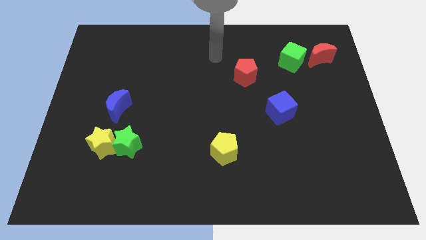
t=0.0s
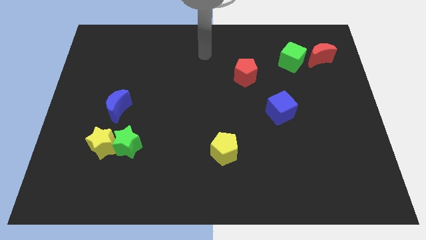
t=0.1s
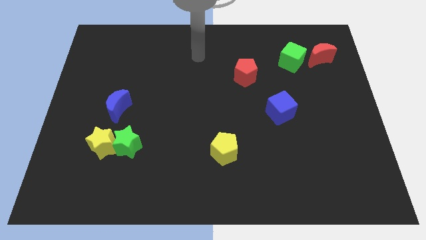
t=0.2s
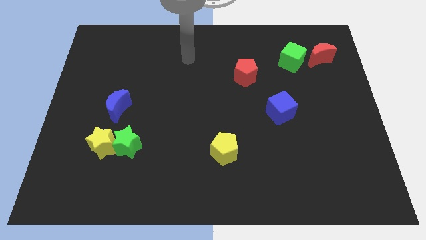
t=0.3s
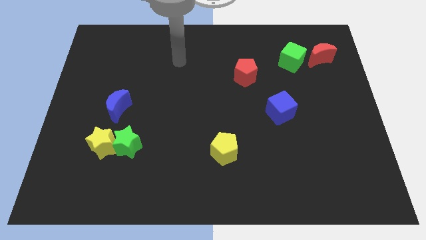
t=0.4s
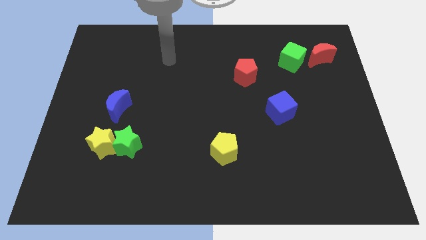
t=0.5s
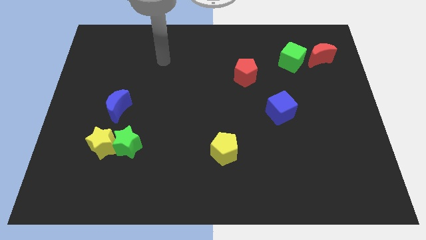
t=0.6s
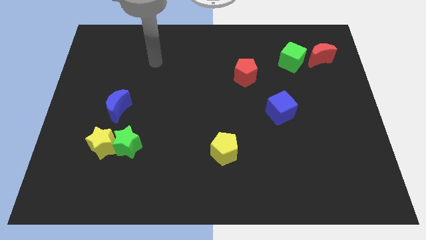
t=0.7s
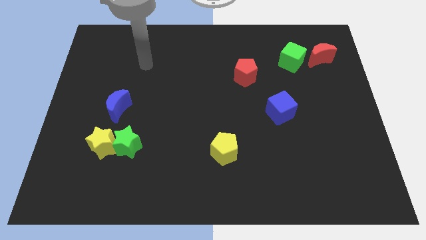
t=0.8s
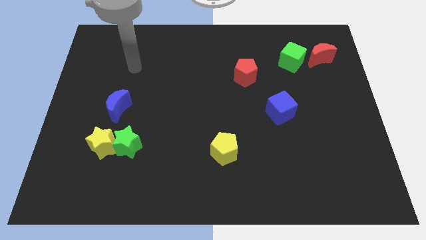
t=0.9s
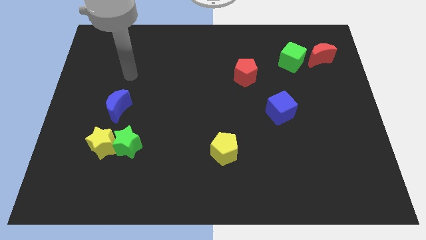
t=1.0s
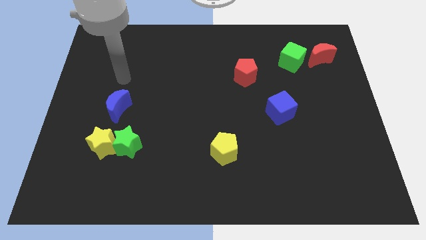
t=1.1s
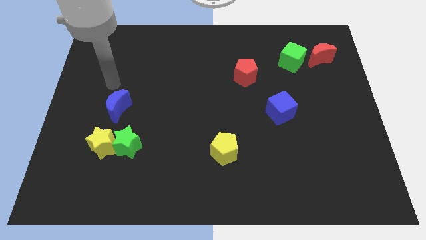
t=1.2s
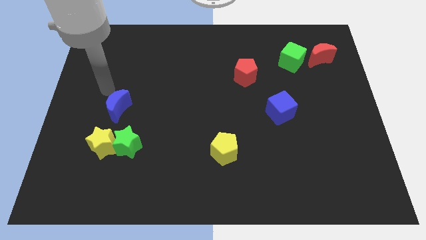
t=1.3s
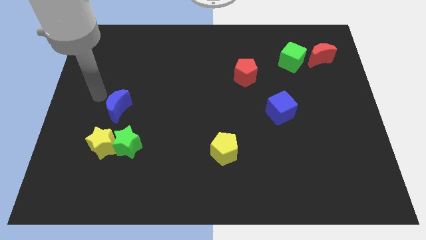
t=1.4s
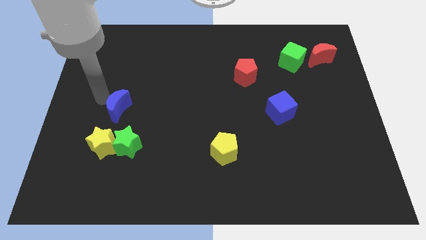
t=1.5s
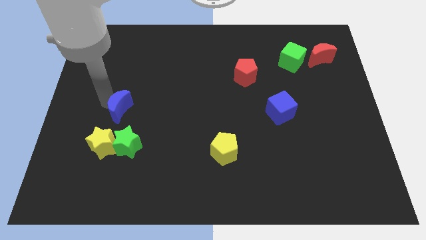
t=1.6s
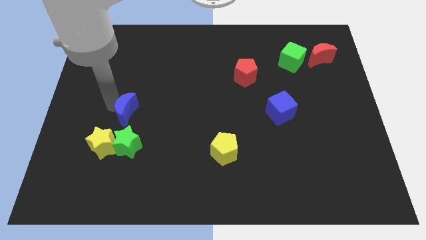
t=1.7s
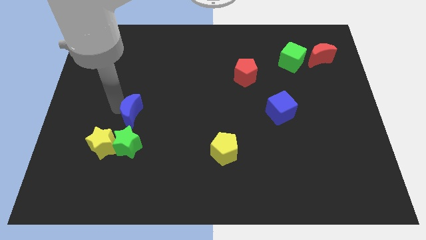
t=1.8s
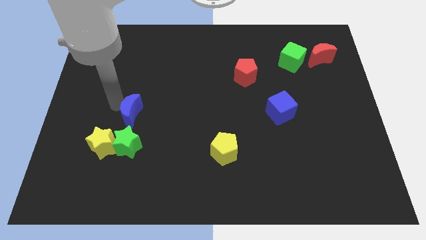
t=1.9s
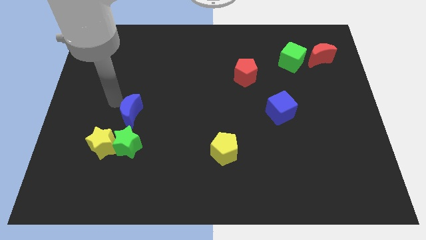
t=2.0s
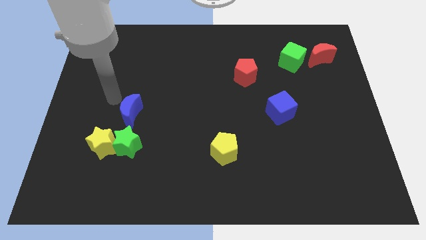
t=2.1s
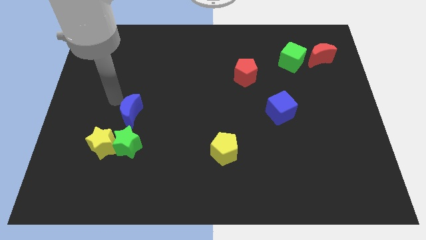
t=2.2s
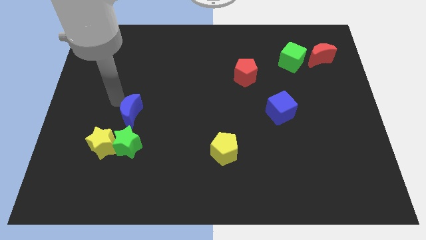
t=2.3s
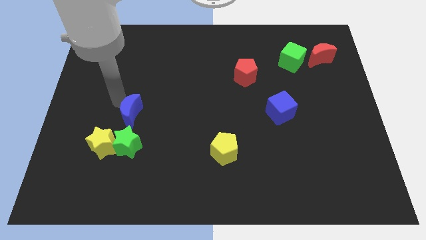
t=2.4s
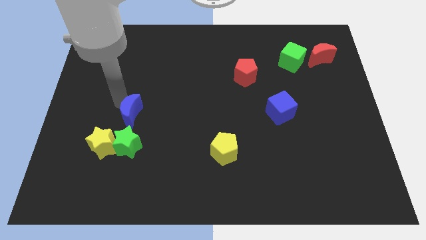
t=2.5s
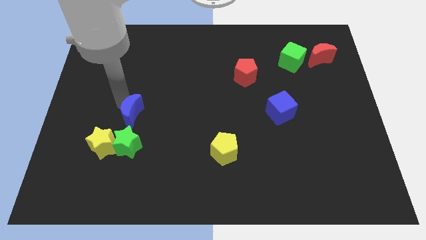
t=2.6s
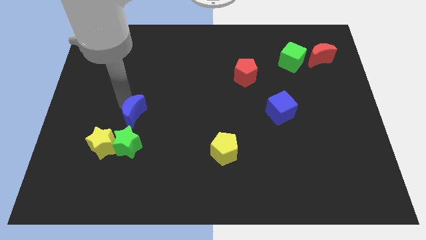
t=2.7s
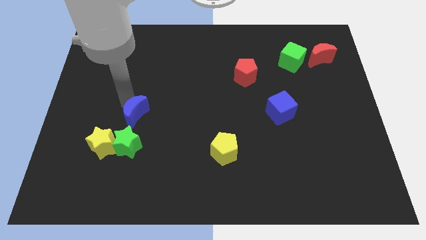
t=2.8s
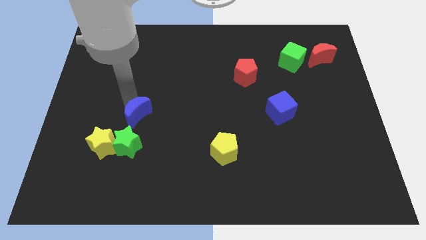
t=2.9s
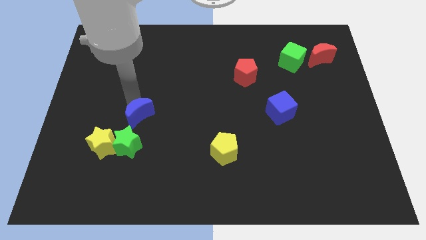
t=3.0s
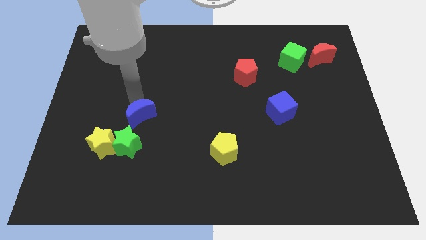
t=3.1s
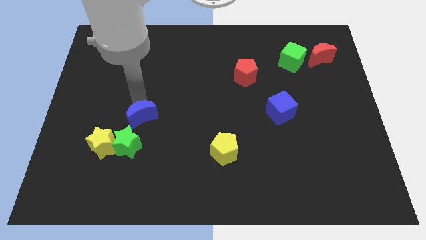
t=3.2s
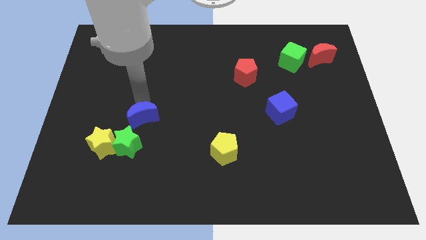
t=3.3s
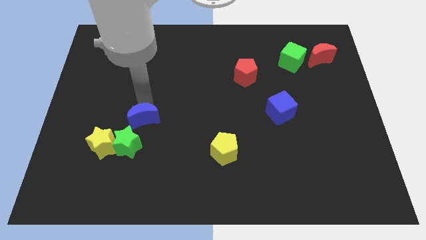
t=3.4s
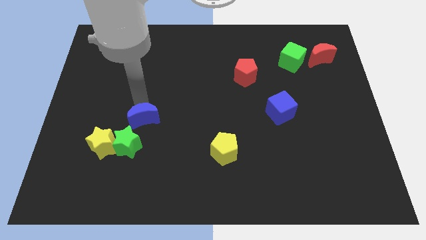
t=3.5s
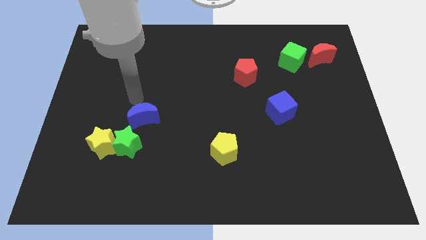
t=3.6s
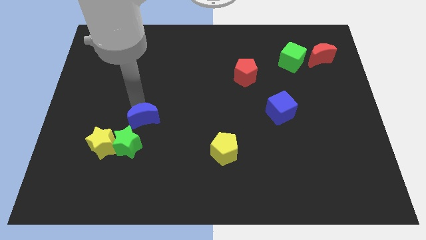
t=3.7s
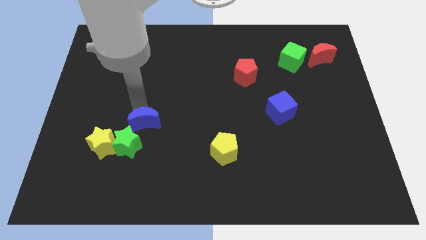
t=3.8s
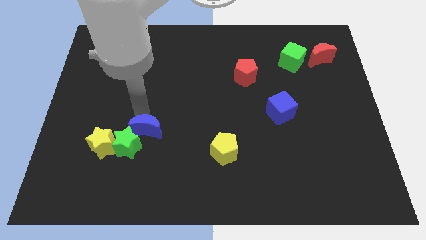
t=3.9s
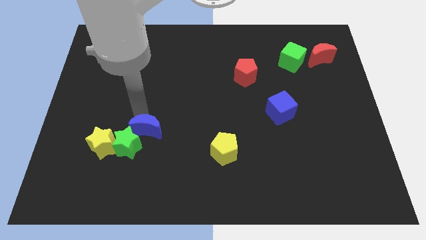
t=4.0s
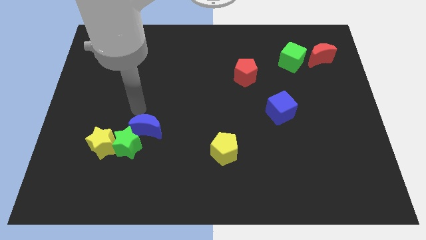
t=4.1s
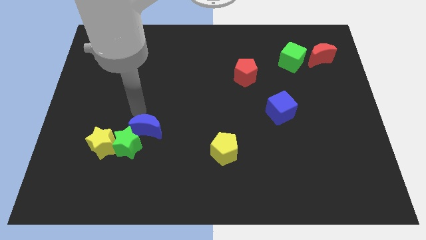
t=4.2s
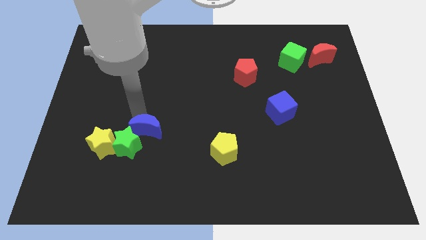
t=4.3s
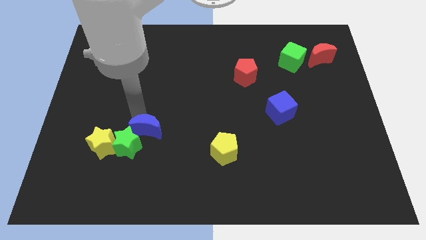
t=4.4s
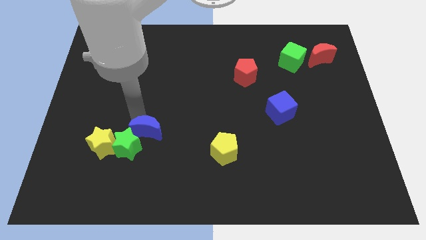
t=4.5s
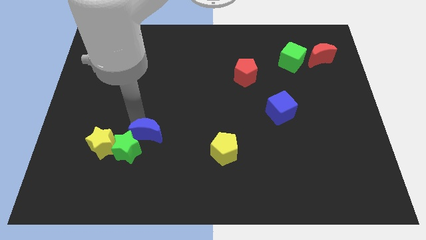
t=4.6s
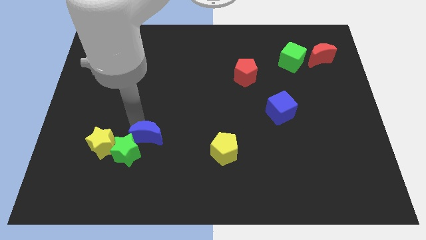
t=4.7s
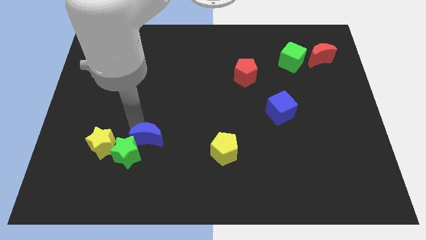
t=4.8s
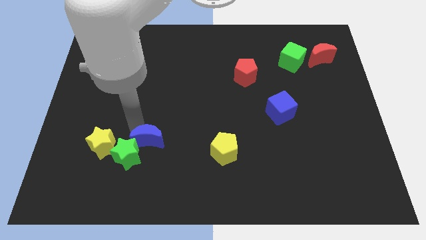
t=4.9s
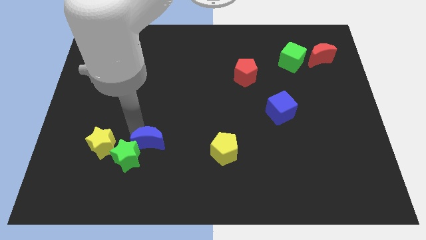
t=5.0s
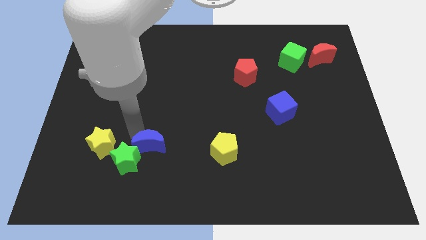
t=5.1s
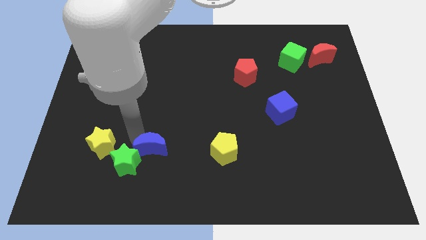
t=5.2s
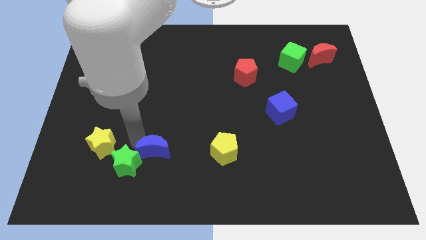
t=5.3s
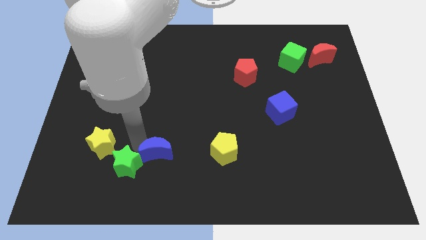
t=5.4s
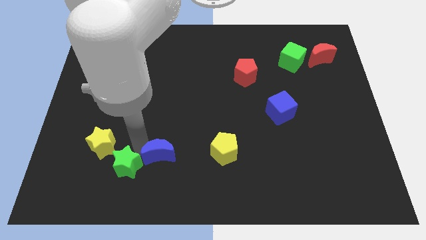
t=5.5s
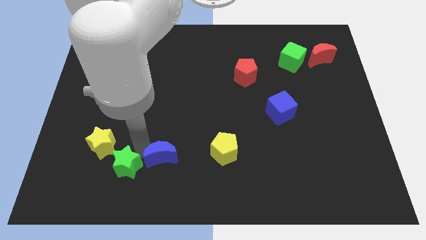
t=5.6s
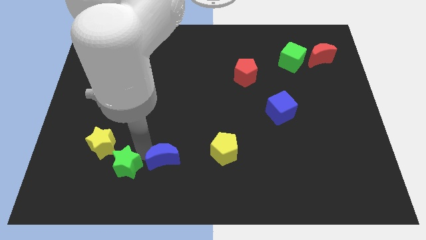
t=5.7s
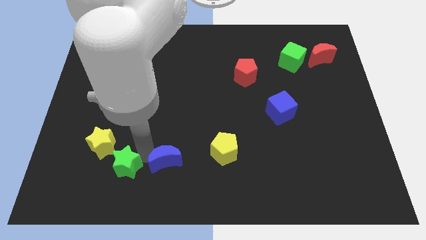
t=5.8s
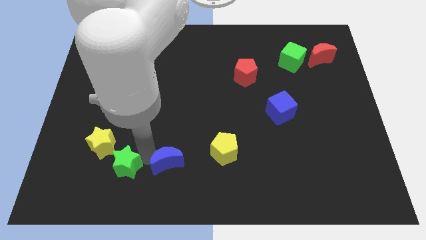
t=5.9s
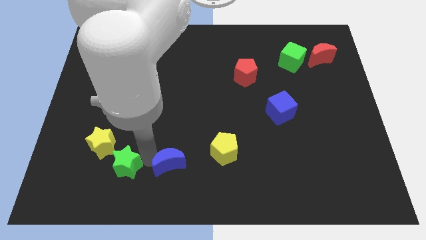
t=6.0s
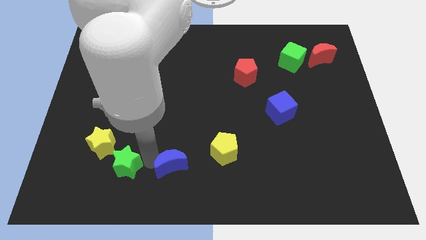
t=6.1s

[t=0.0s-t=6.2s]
move the blue moon to the bottom

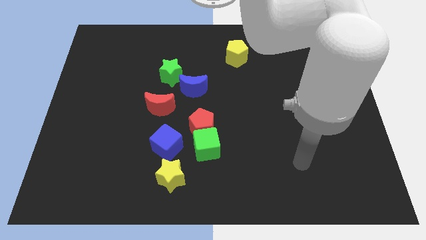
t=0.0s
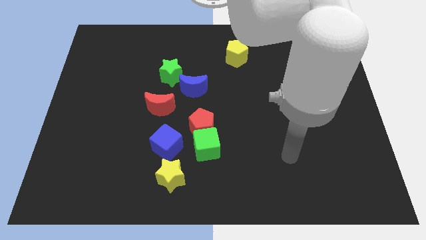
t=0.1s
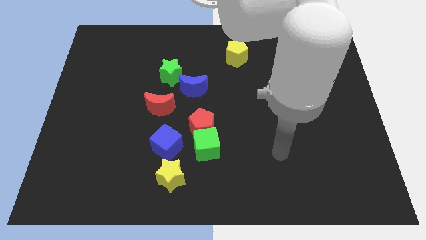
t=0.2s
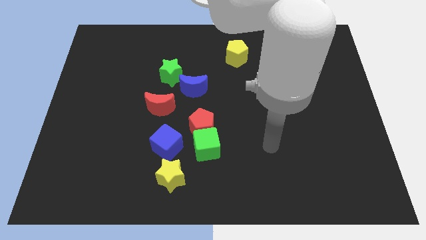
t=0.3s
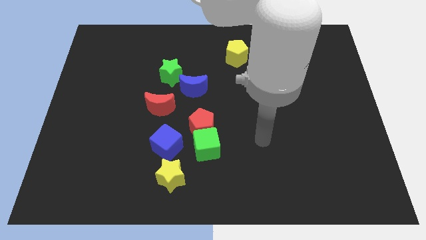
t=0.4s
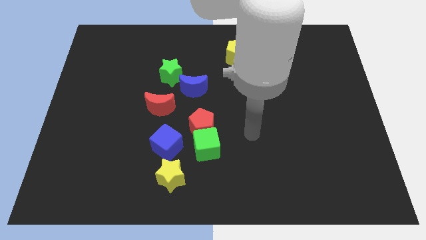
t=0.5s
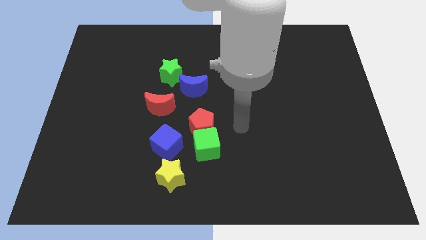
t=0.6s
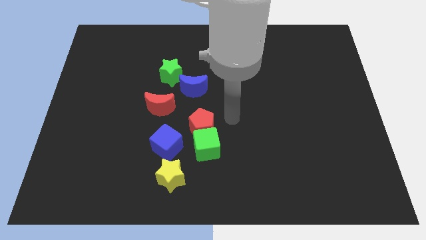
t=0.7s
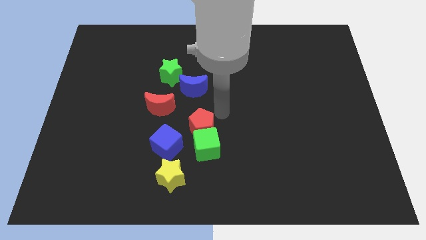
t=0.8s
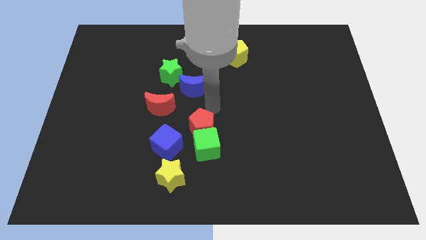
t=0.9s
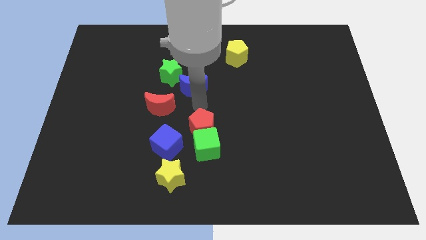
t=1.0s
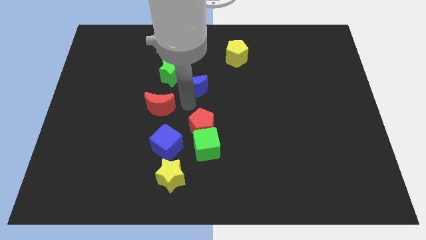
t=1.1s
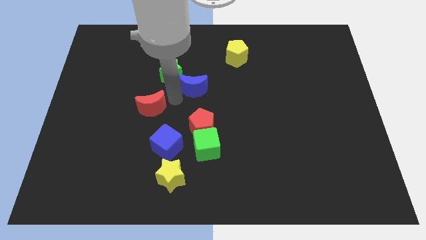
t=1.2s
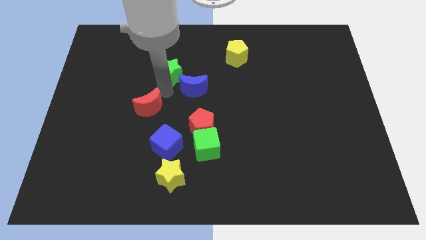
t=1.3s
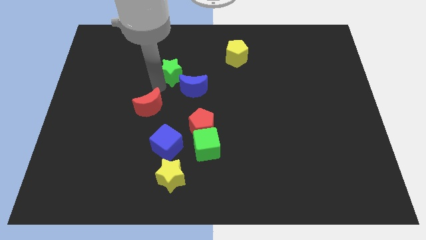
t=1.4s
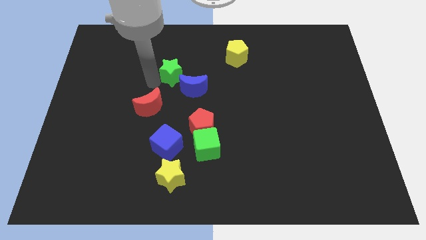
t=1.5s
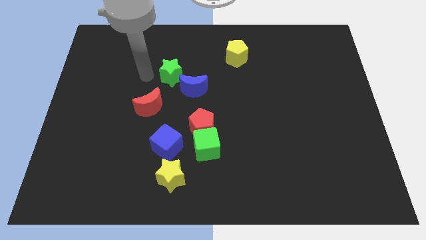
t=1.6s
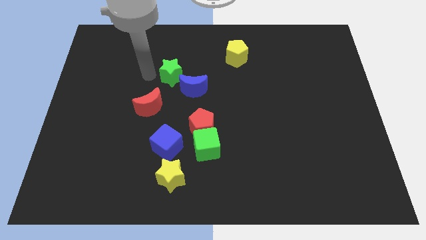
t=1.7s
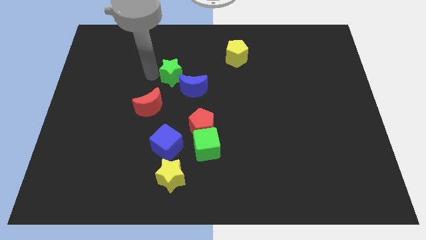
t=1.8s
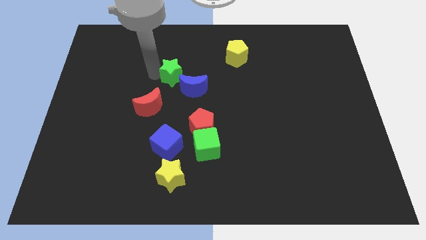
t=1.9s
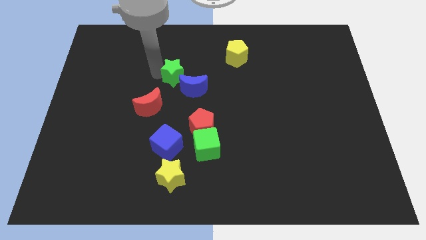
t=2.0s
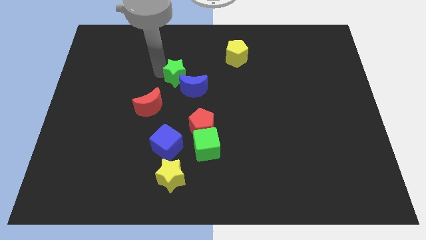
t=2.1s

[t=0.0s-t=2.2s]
put the green star to the center
